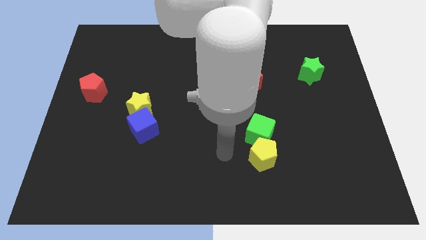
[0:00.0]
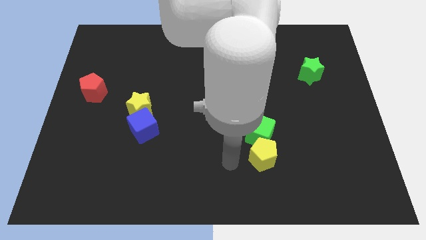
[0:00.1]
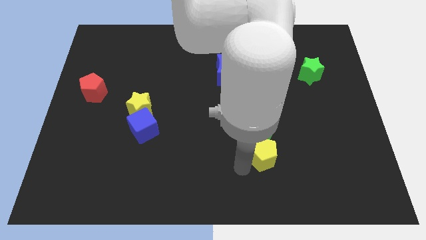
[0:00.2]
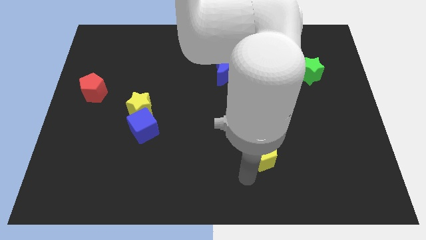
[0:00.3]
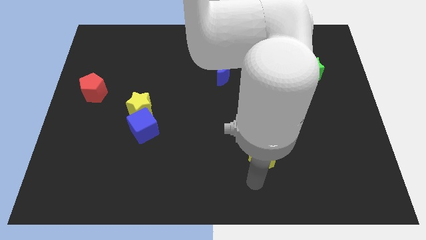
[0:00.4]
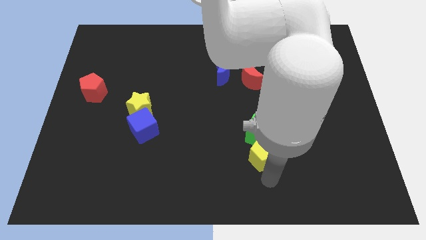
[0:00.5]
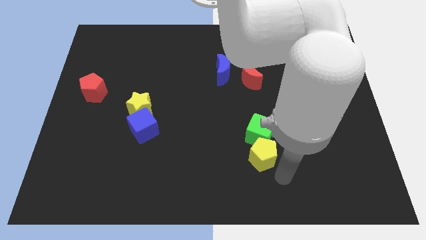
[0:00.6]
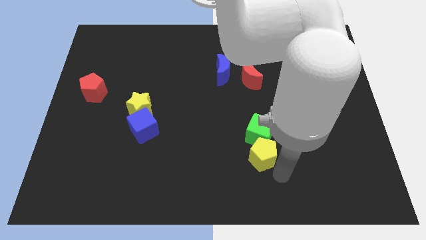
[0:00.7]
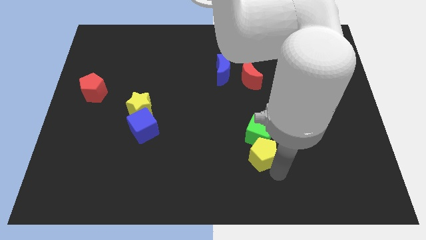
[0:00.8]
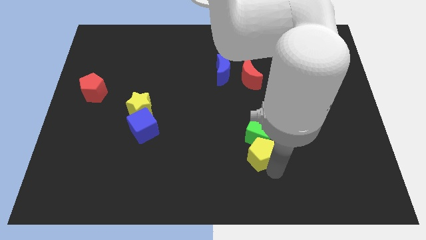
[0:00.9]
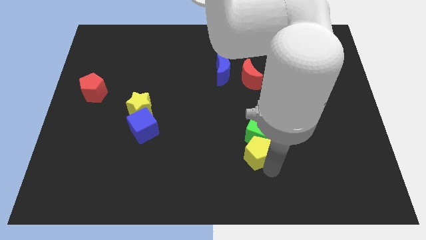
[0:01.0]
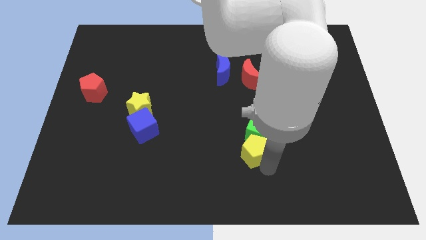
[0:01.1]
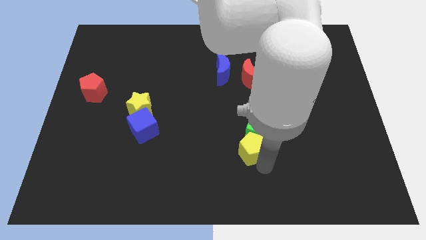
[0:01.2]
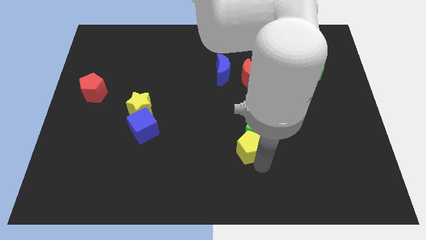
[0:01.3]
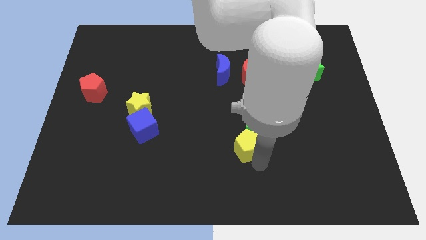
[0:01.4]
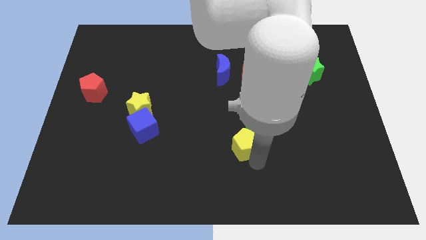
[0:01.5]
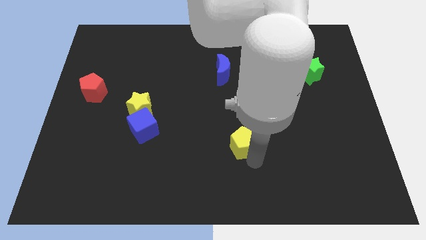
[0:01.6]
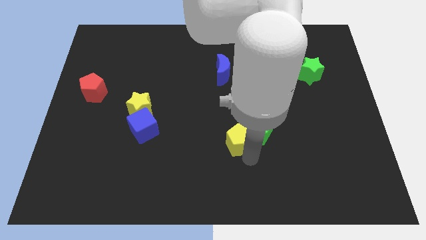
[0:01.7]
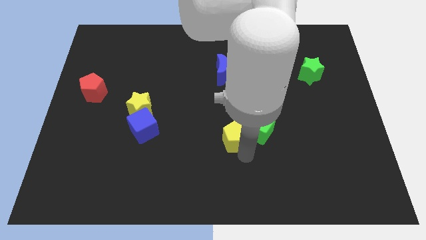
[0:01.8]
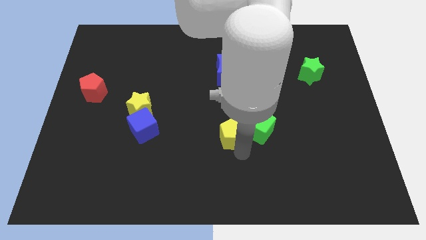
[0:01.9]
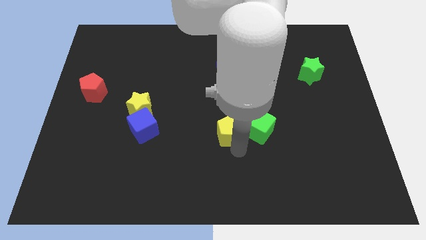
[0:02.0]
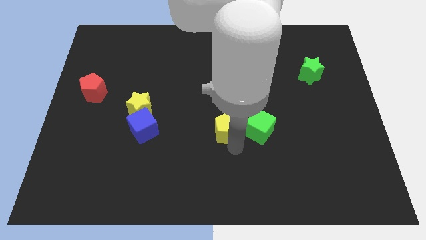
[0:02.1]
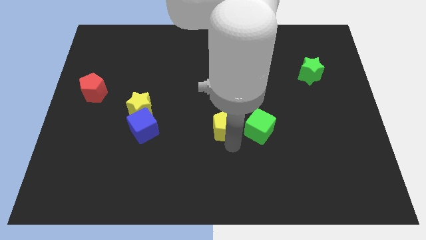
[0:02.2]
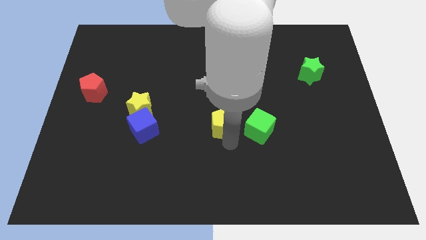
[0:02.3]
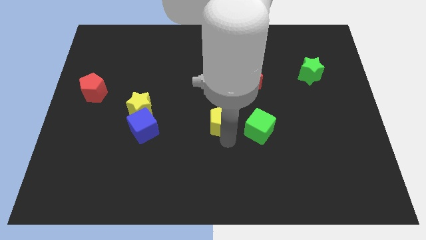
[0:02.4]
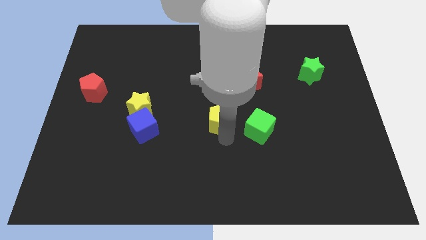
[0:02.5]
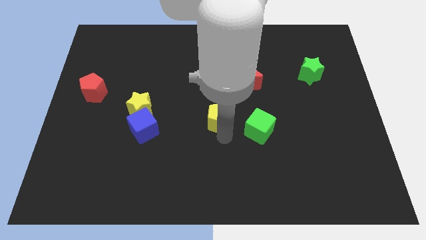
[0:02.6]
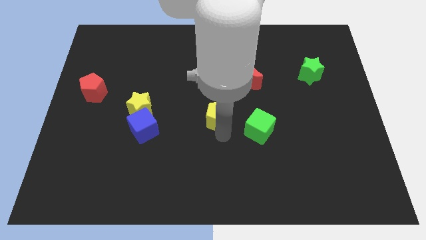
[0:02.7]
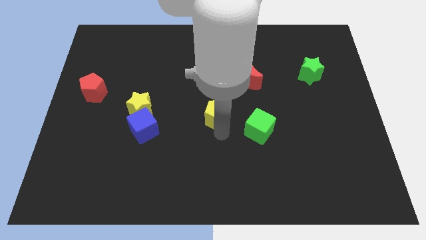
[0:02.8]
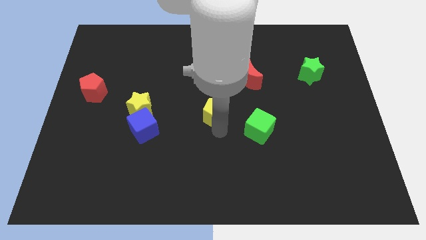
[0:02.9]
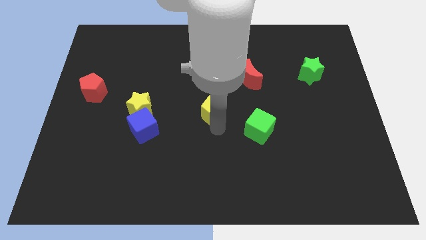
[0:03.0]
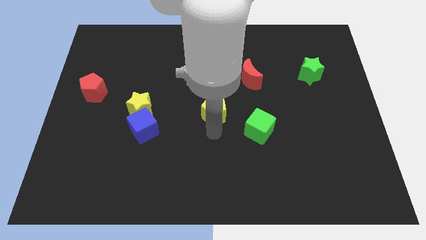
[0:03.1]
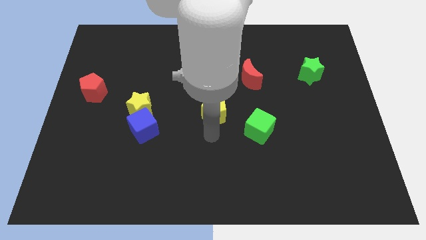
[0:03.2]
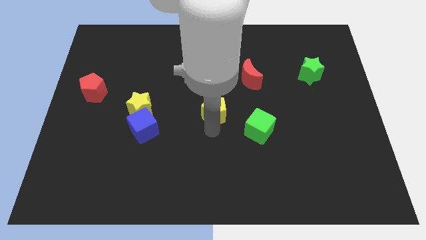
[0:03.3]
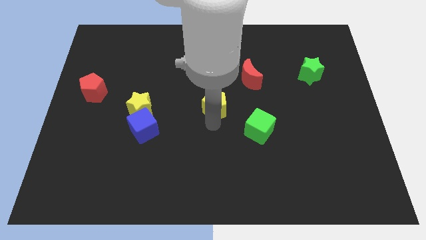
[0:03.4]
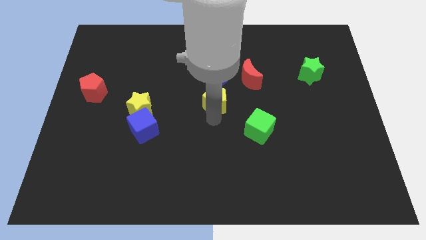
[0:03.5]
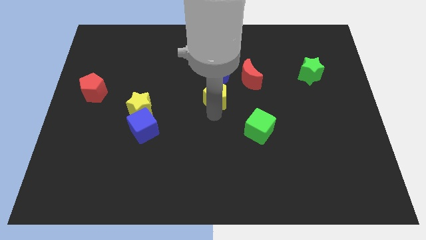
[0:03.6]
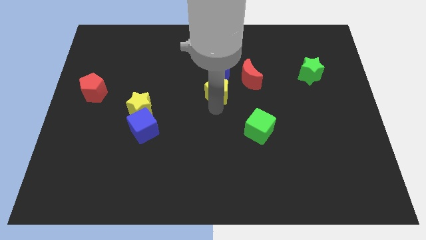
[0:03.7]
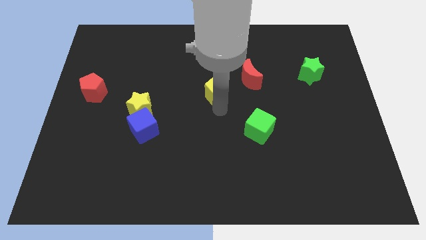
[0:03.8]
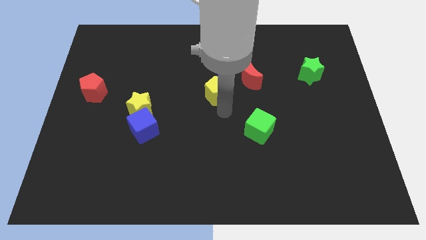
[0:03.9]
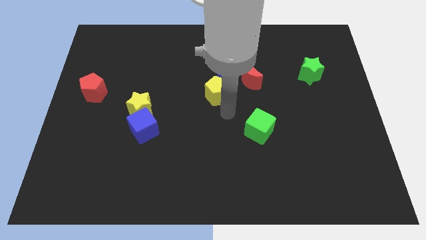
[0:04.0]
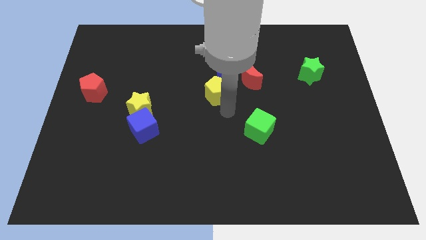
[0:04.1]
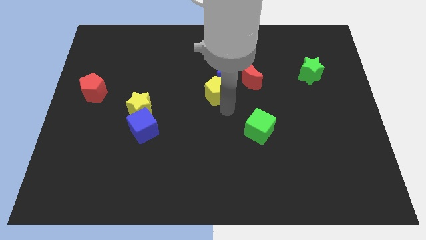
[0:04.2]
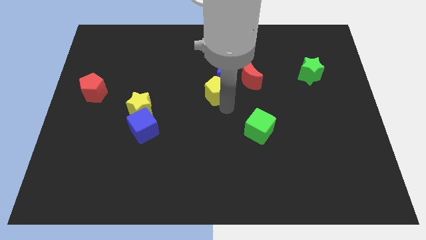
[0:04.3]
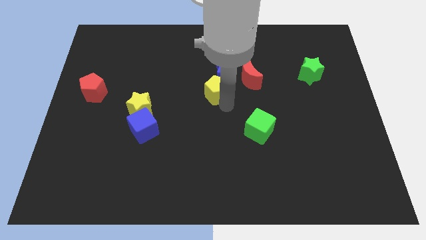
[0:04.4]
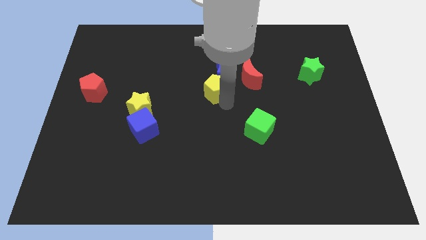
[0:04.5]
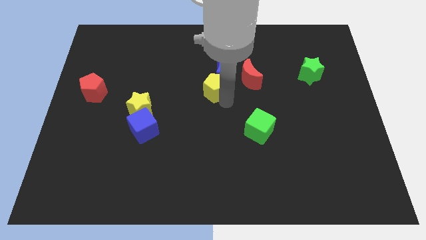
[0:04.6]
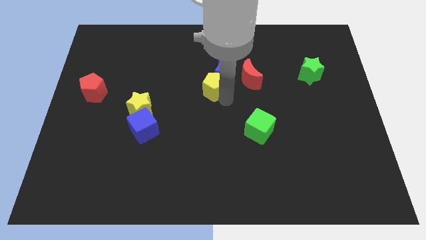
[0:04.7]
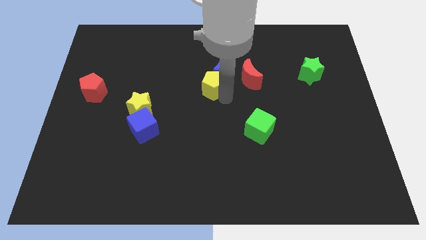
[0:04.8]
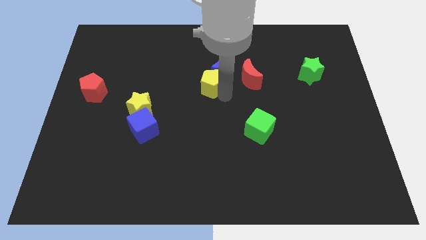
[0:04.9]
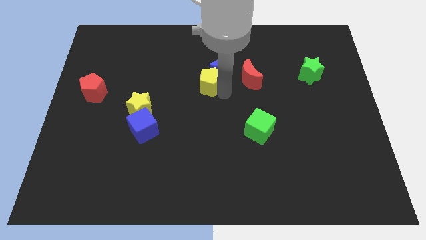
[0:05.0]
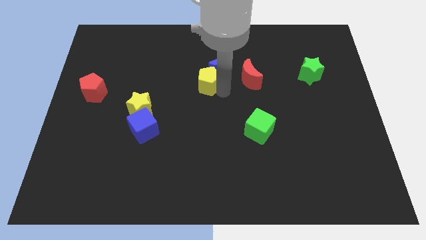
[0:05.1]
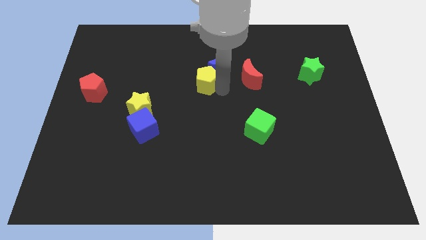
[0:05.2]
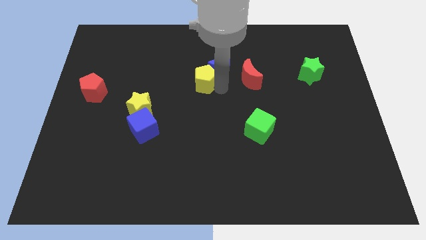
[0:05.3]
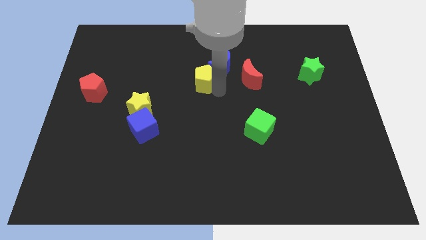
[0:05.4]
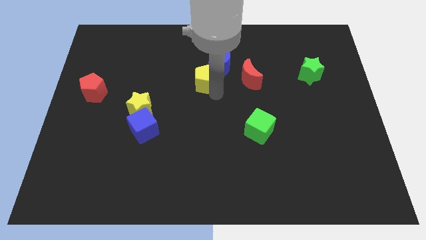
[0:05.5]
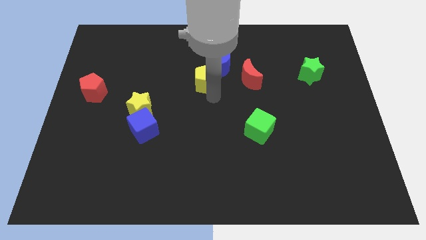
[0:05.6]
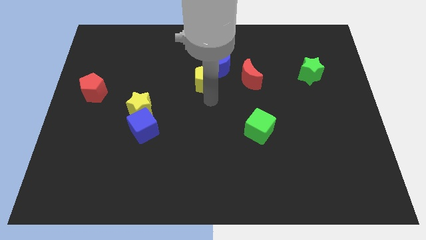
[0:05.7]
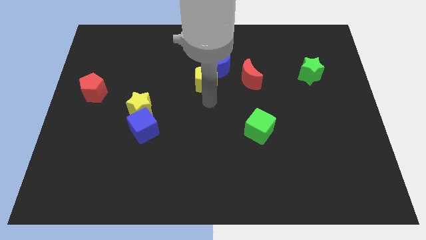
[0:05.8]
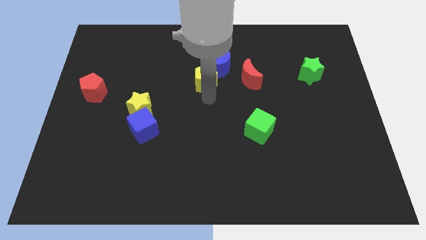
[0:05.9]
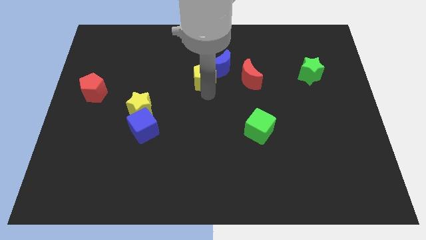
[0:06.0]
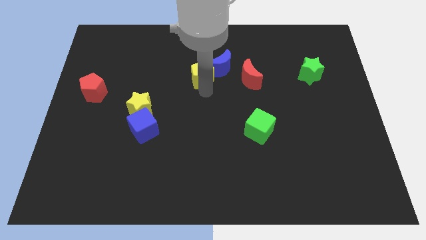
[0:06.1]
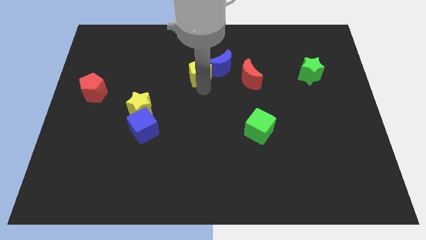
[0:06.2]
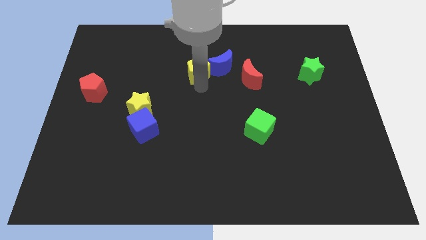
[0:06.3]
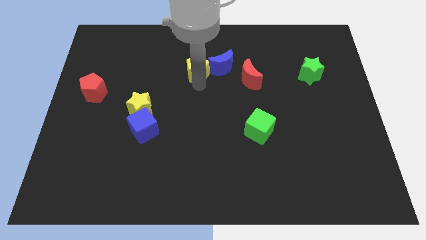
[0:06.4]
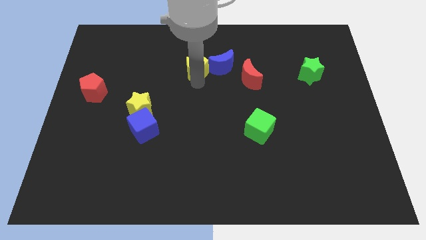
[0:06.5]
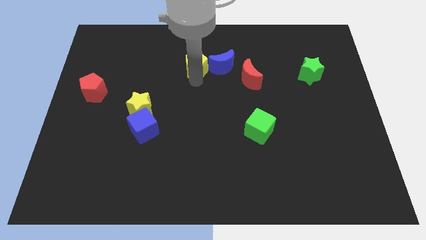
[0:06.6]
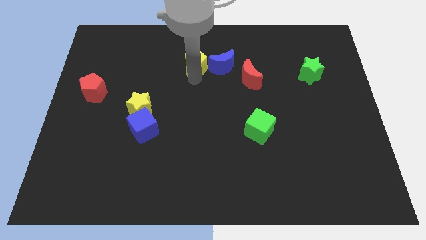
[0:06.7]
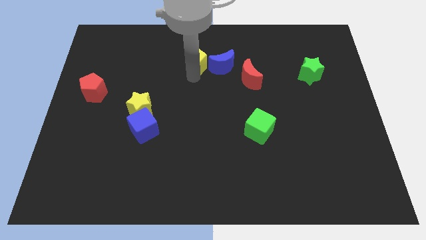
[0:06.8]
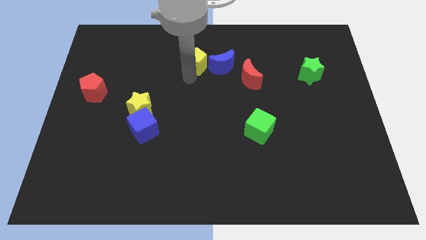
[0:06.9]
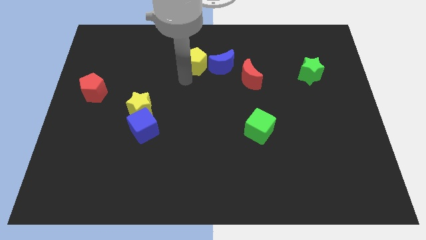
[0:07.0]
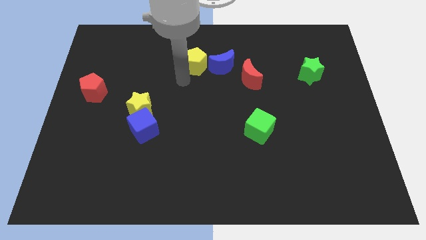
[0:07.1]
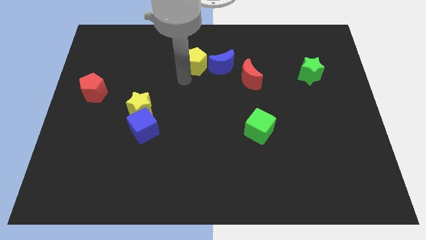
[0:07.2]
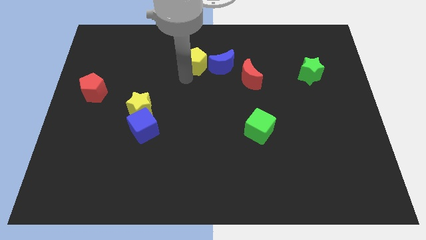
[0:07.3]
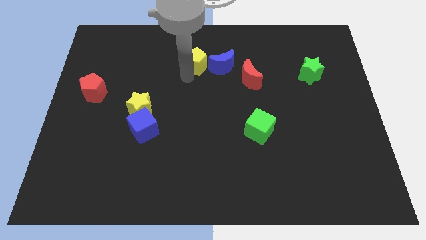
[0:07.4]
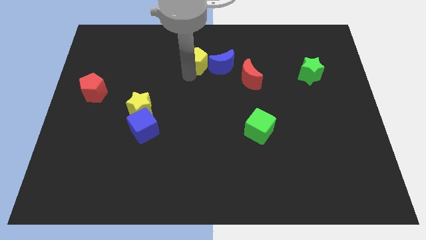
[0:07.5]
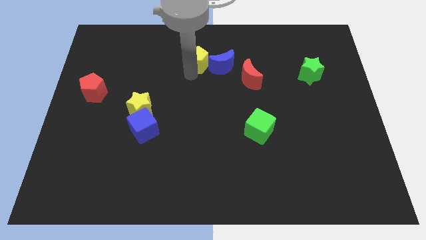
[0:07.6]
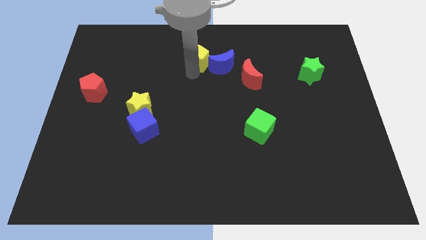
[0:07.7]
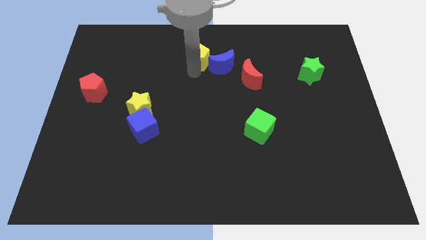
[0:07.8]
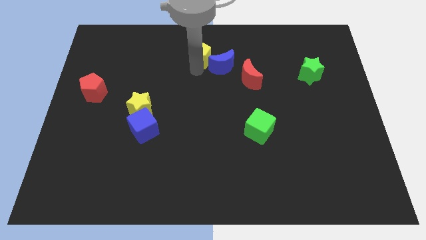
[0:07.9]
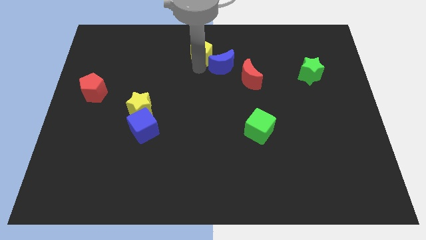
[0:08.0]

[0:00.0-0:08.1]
slide the yellow pentagon to the top
